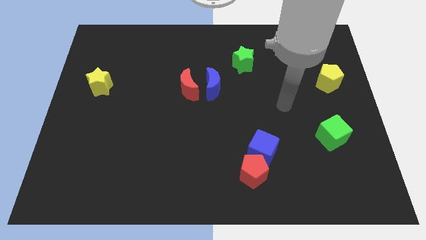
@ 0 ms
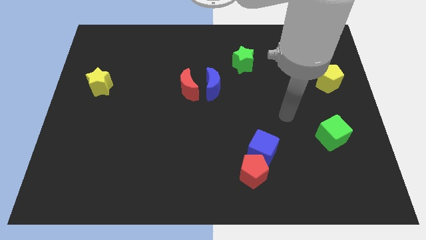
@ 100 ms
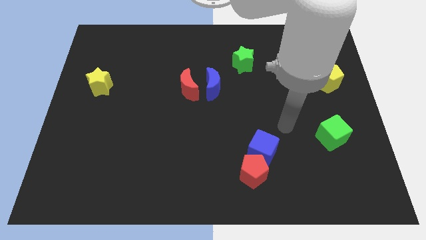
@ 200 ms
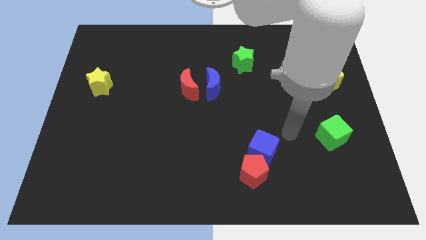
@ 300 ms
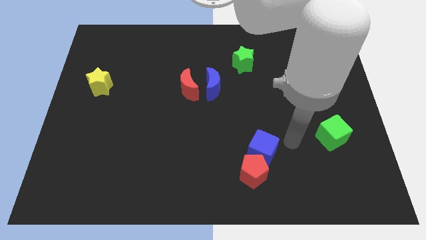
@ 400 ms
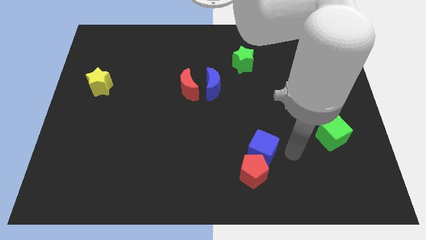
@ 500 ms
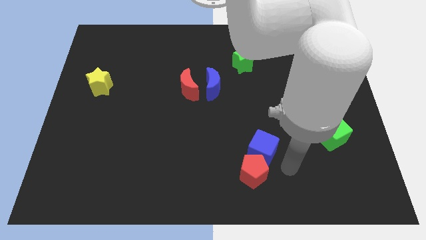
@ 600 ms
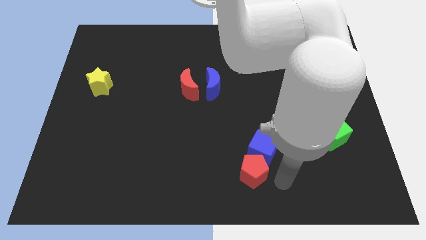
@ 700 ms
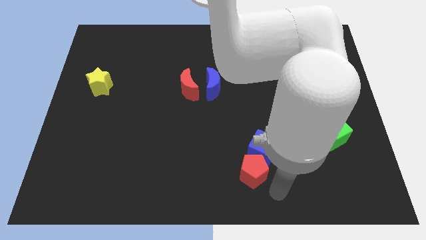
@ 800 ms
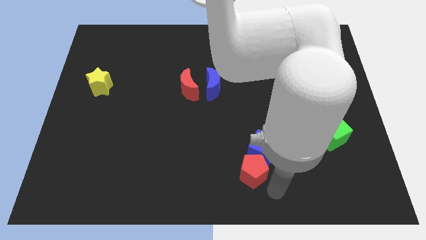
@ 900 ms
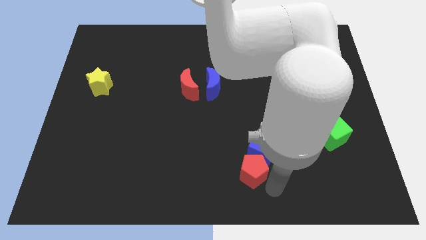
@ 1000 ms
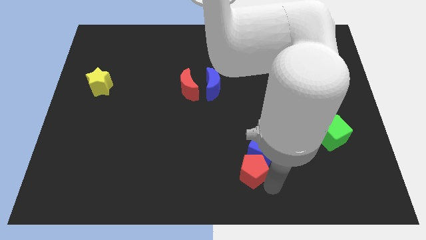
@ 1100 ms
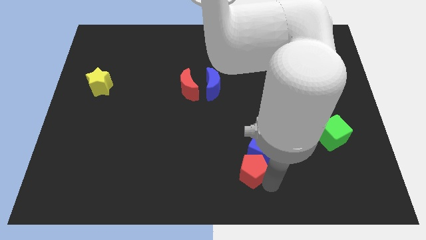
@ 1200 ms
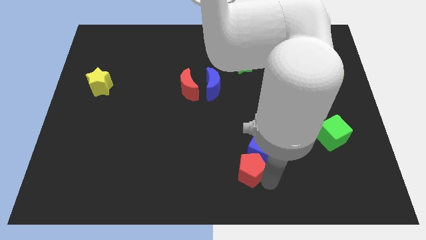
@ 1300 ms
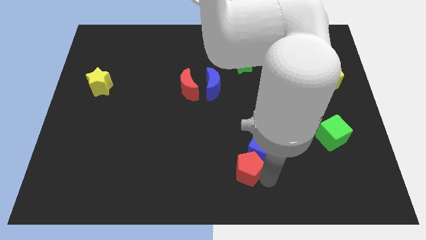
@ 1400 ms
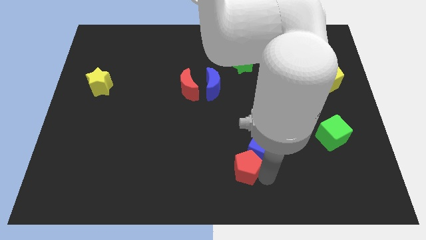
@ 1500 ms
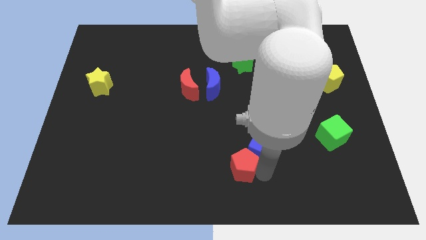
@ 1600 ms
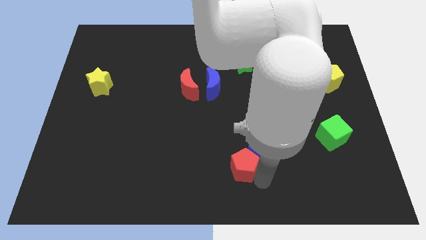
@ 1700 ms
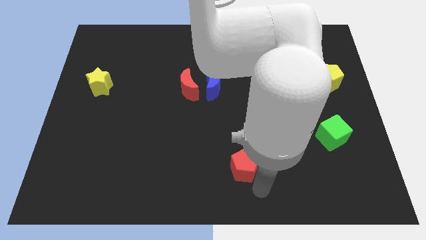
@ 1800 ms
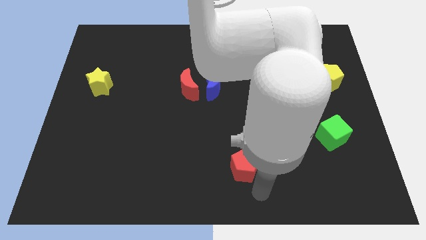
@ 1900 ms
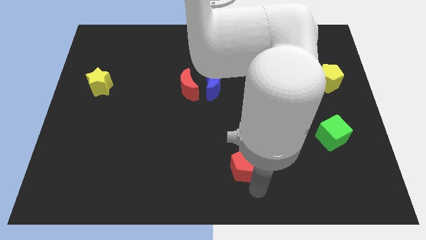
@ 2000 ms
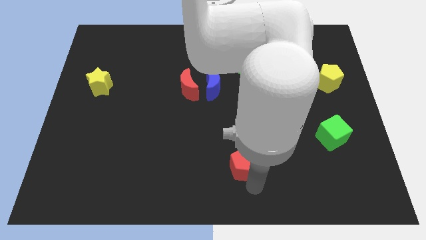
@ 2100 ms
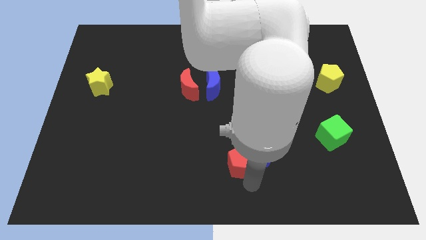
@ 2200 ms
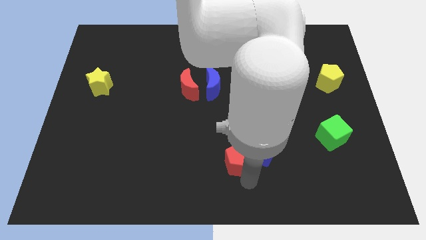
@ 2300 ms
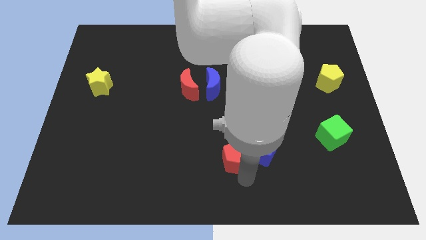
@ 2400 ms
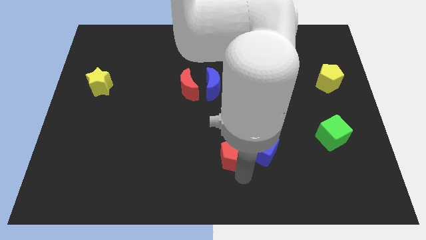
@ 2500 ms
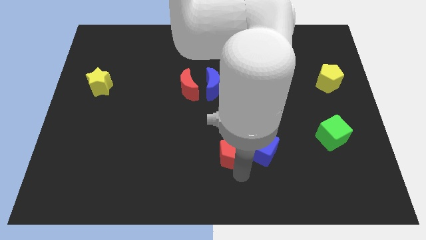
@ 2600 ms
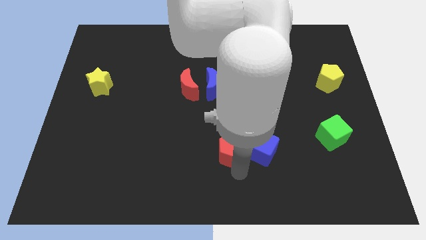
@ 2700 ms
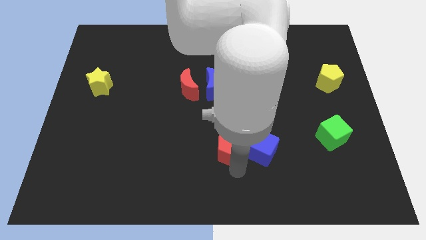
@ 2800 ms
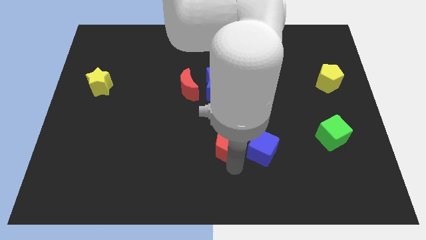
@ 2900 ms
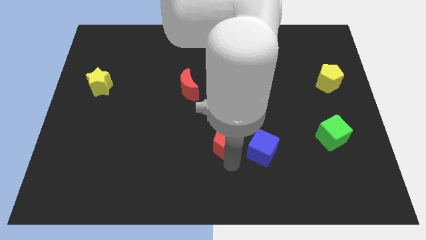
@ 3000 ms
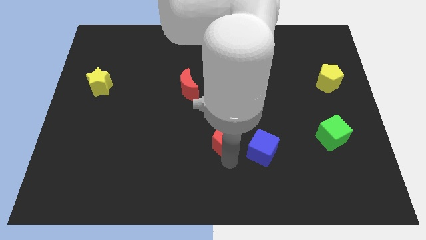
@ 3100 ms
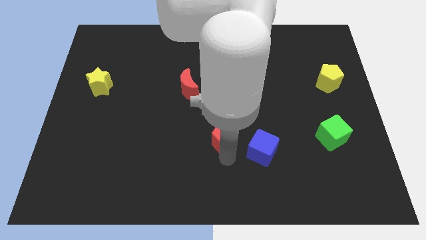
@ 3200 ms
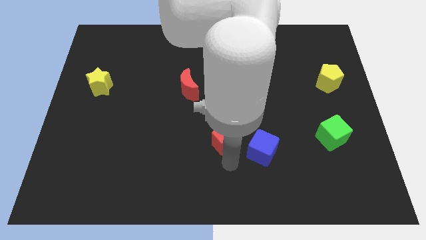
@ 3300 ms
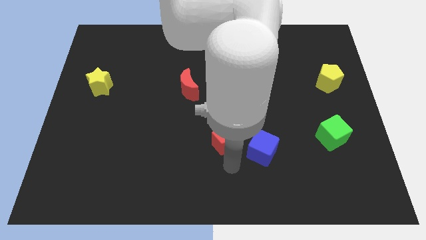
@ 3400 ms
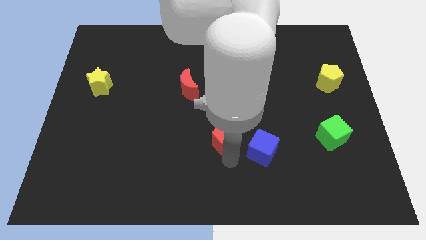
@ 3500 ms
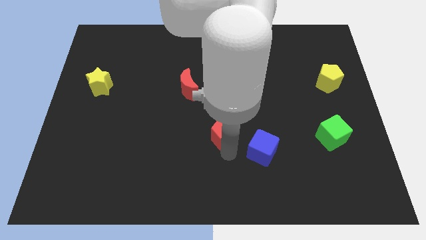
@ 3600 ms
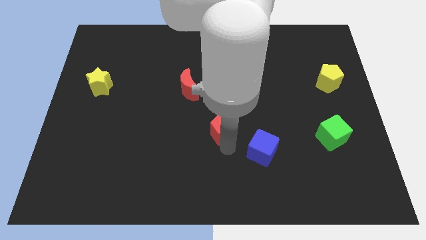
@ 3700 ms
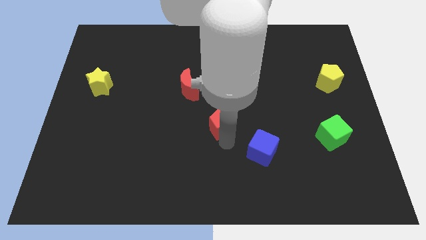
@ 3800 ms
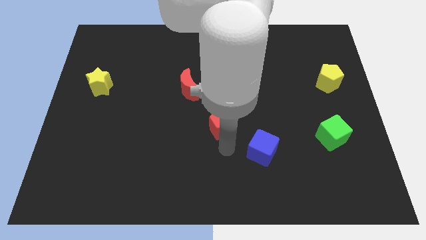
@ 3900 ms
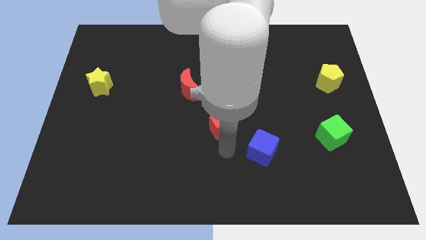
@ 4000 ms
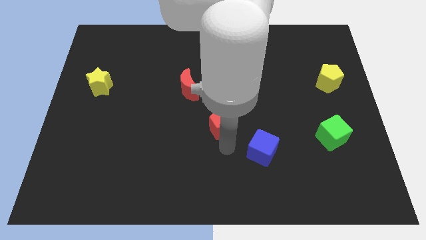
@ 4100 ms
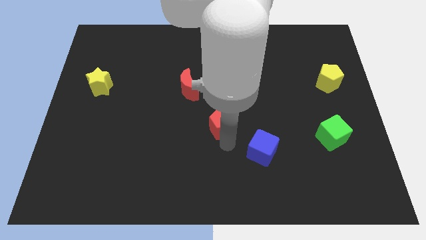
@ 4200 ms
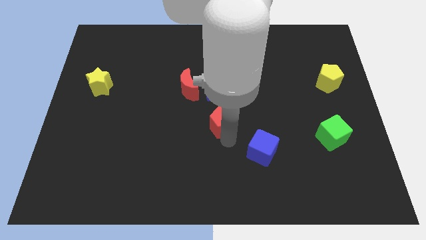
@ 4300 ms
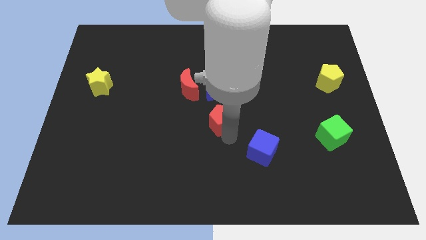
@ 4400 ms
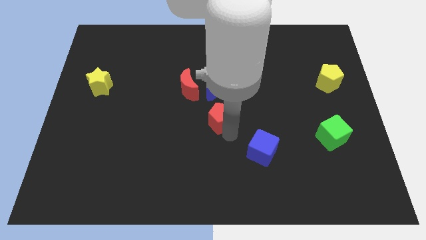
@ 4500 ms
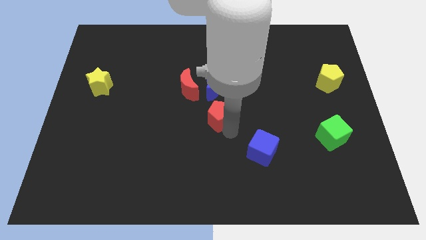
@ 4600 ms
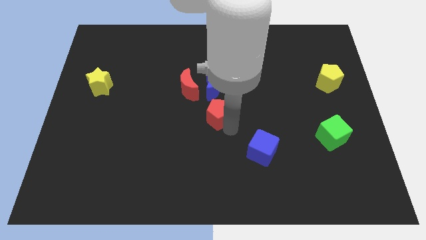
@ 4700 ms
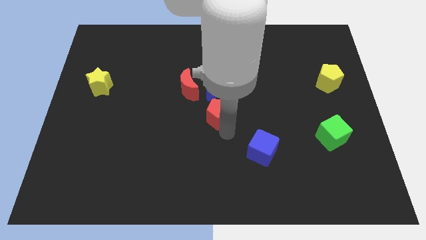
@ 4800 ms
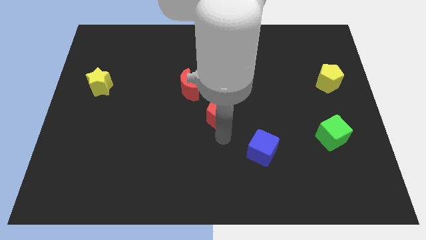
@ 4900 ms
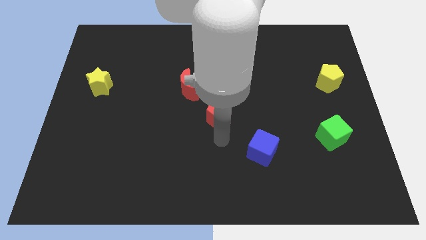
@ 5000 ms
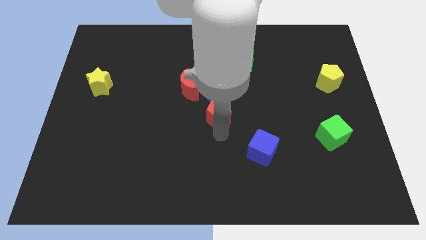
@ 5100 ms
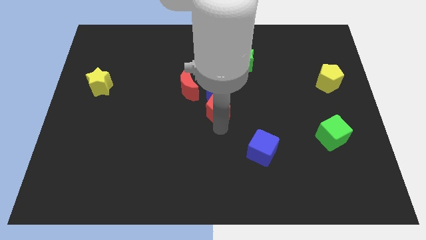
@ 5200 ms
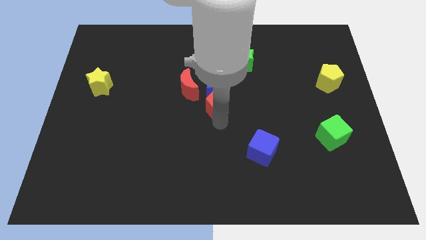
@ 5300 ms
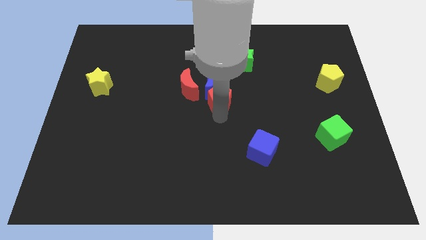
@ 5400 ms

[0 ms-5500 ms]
push the red pentagon close to the blue moon

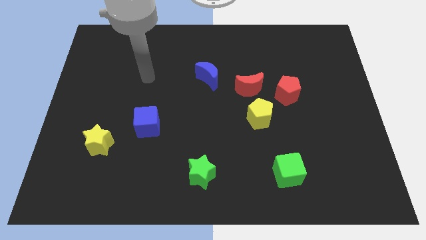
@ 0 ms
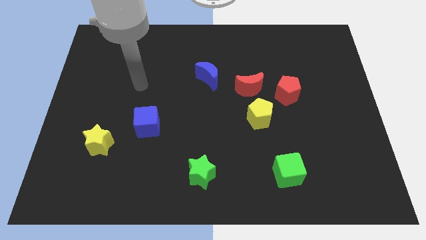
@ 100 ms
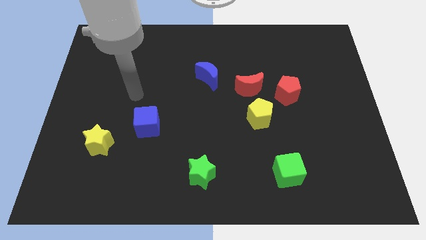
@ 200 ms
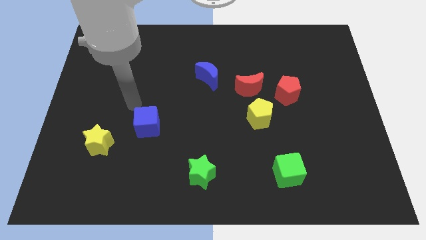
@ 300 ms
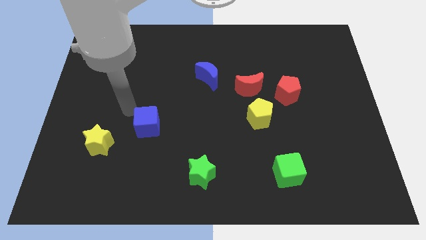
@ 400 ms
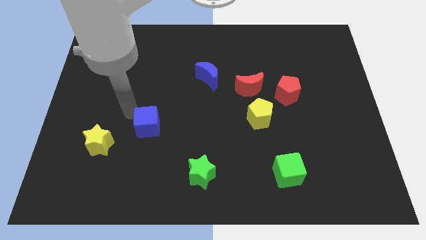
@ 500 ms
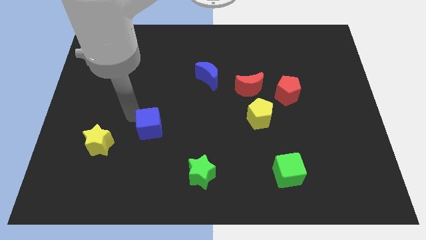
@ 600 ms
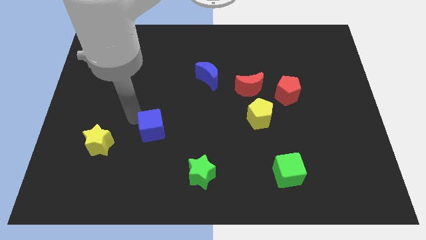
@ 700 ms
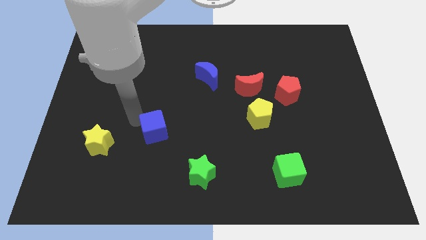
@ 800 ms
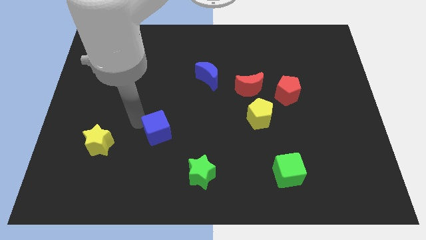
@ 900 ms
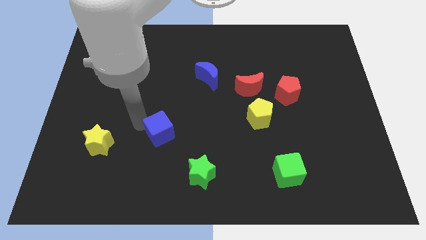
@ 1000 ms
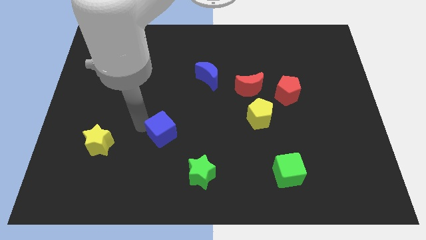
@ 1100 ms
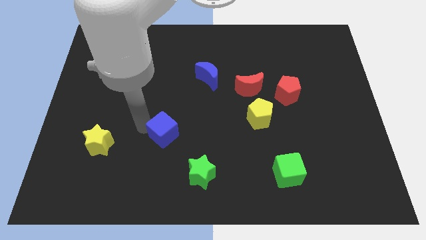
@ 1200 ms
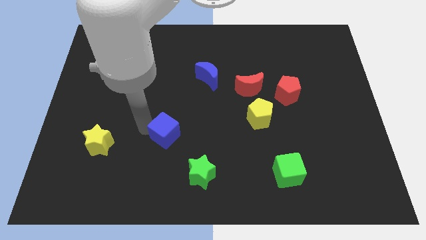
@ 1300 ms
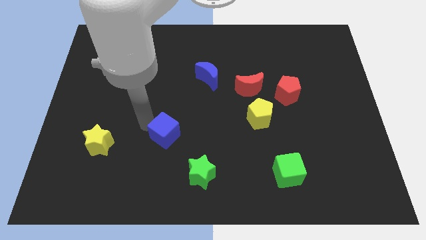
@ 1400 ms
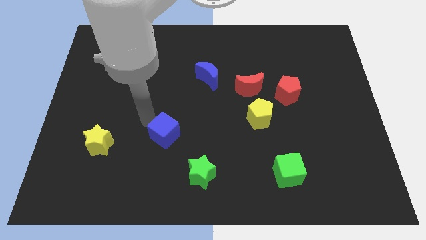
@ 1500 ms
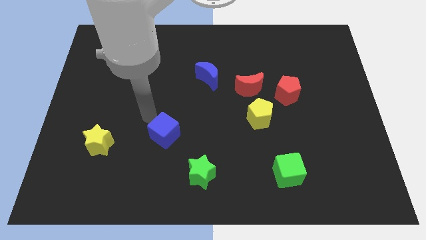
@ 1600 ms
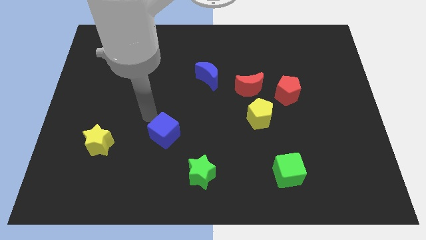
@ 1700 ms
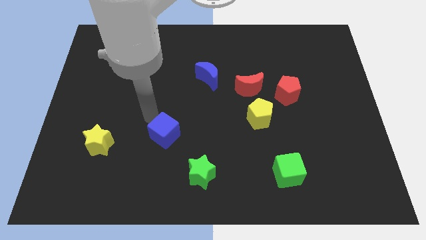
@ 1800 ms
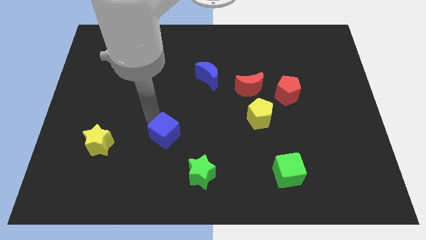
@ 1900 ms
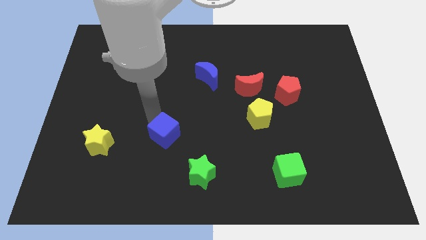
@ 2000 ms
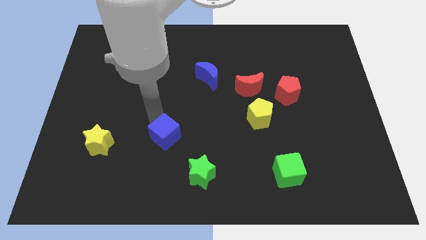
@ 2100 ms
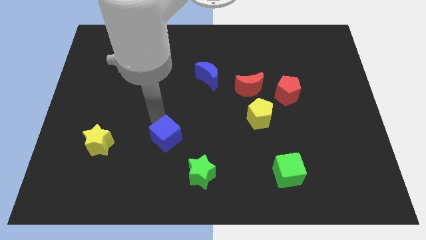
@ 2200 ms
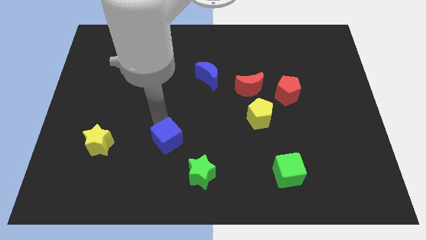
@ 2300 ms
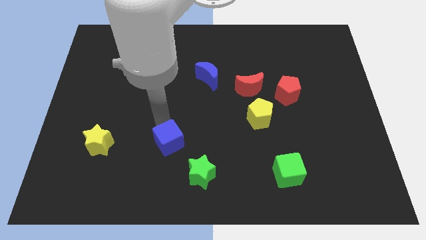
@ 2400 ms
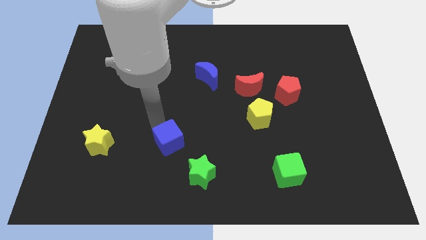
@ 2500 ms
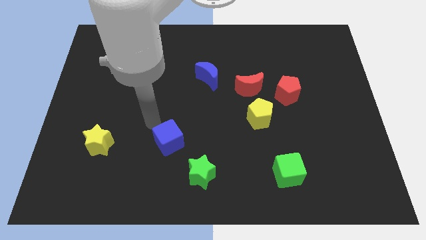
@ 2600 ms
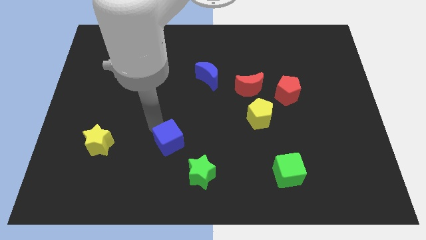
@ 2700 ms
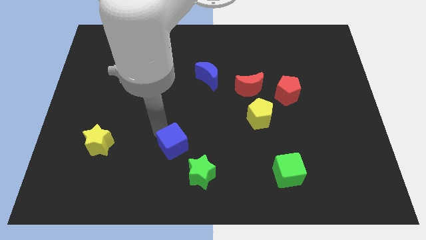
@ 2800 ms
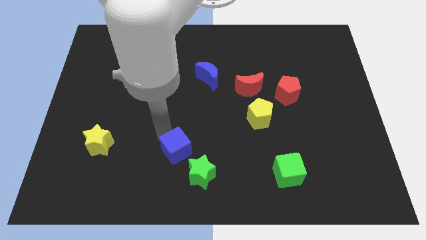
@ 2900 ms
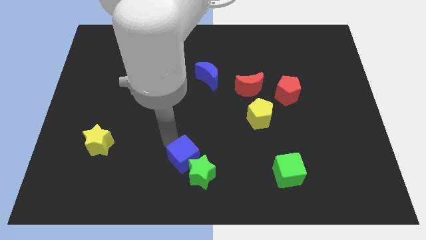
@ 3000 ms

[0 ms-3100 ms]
put the blue cube to the green star
